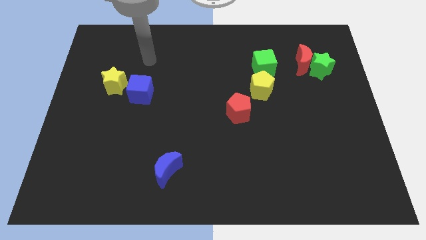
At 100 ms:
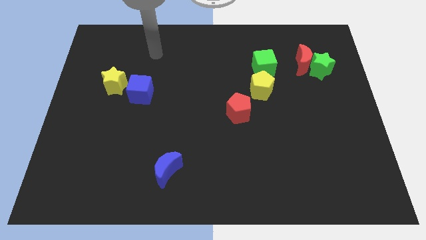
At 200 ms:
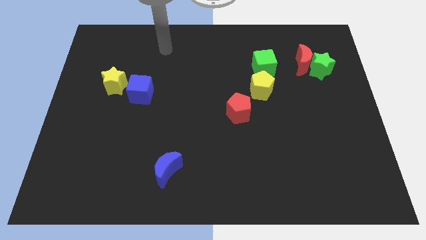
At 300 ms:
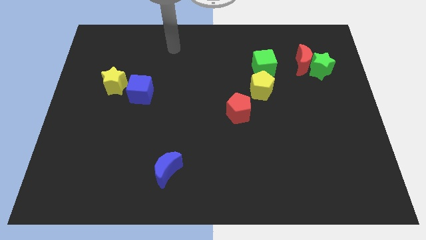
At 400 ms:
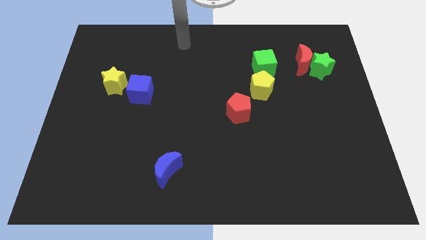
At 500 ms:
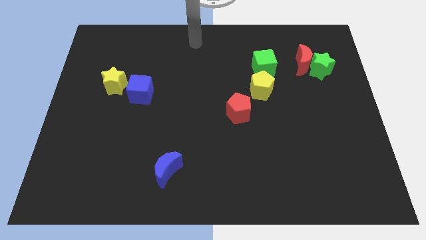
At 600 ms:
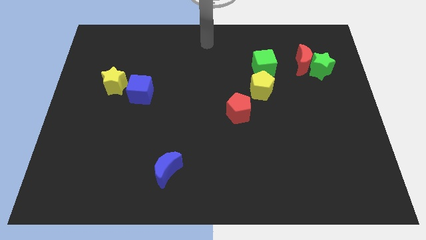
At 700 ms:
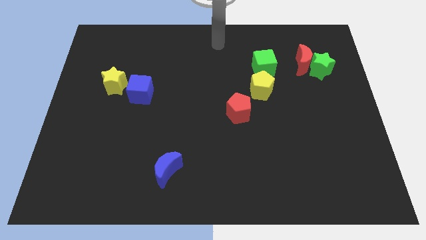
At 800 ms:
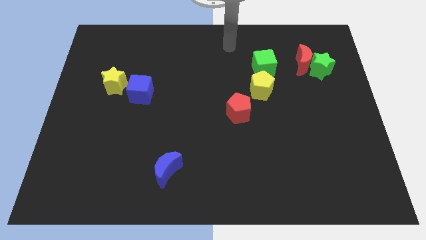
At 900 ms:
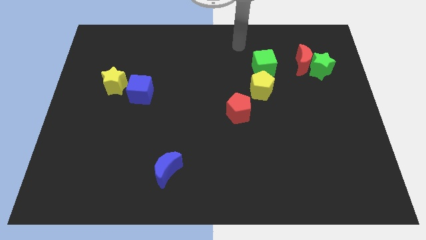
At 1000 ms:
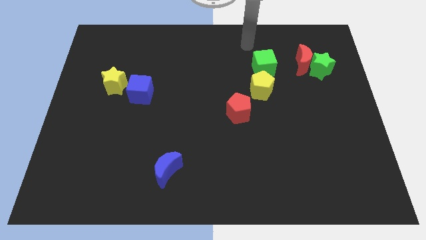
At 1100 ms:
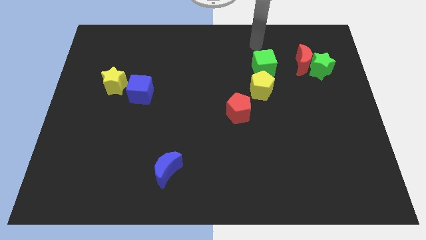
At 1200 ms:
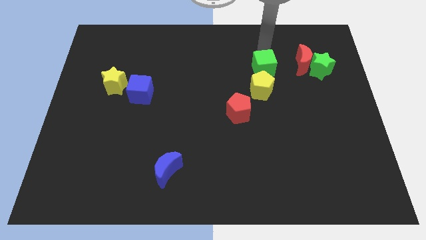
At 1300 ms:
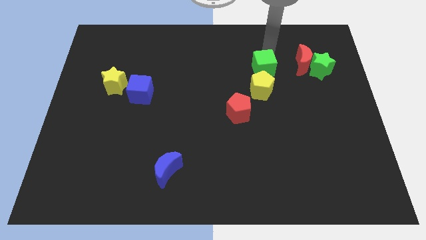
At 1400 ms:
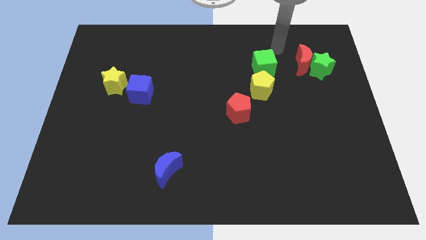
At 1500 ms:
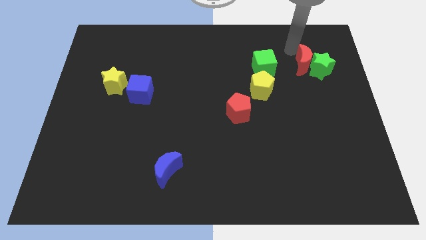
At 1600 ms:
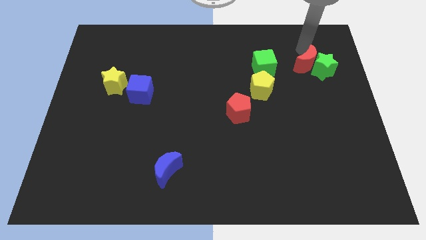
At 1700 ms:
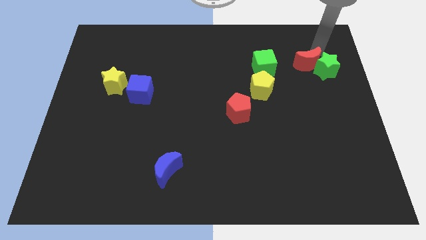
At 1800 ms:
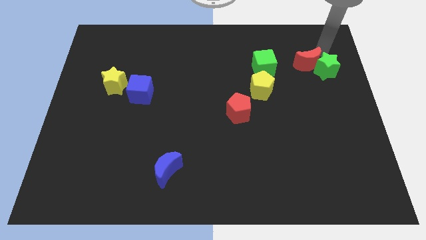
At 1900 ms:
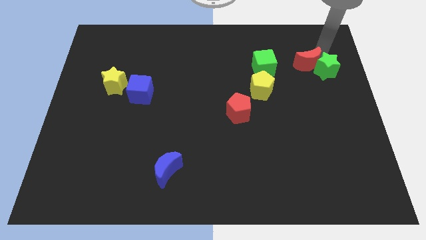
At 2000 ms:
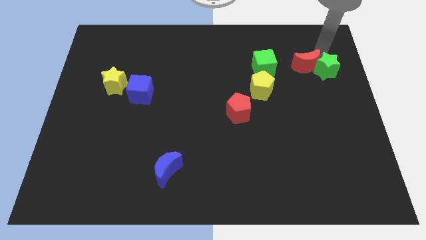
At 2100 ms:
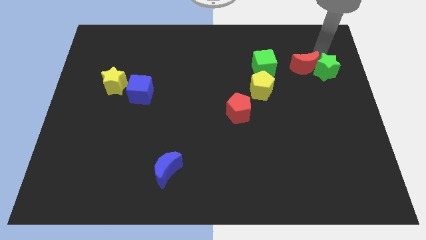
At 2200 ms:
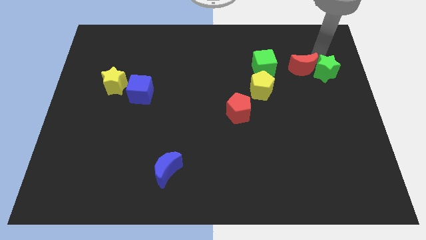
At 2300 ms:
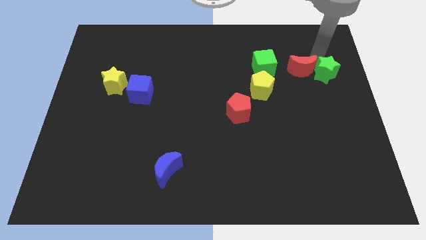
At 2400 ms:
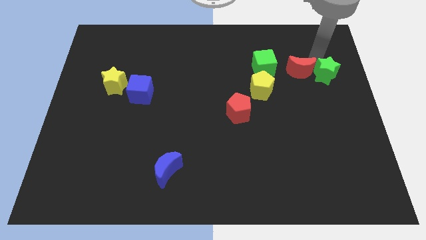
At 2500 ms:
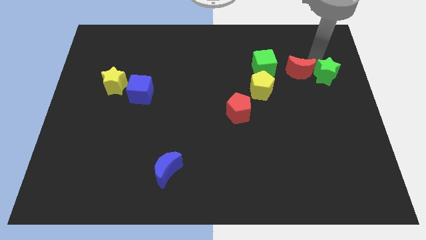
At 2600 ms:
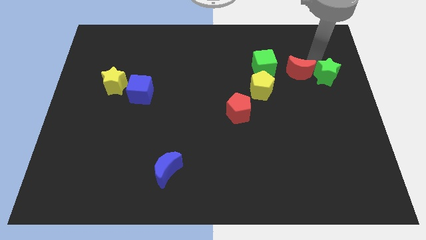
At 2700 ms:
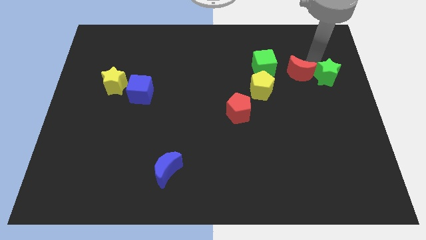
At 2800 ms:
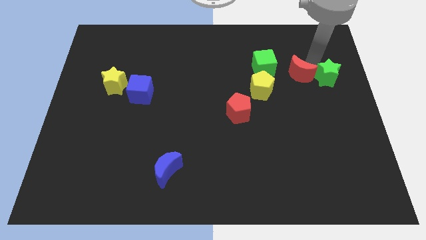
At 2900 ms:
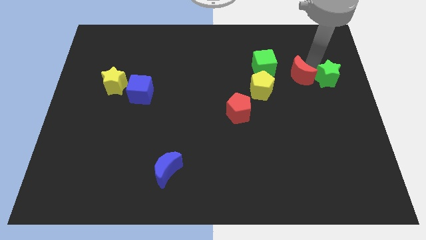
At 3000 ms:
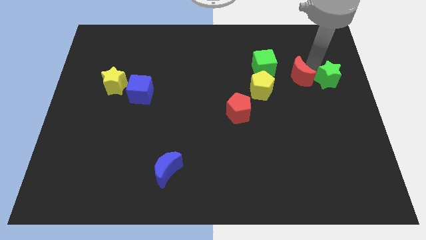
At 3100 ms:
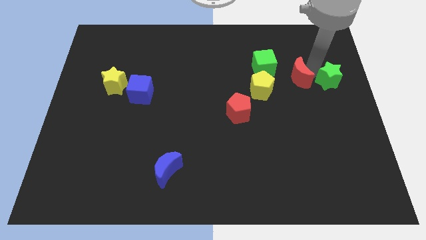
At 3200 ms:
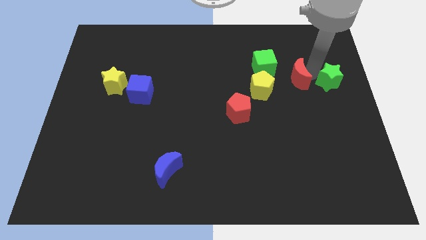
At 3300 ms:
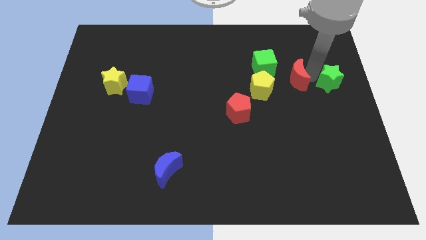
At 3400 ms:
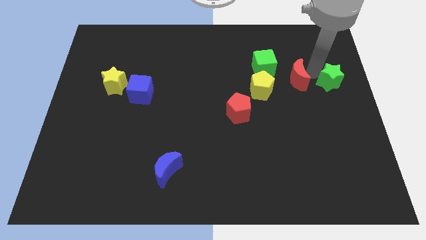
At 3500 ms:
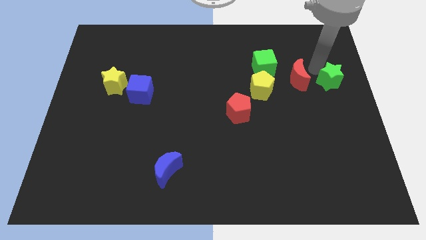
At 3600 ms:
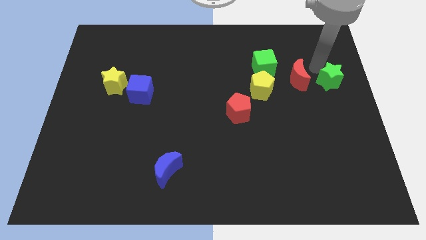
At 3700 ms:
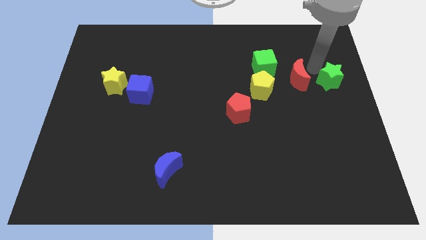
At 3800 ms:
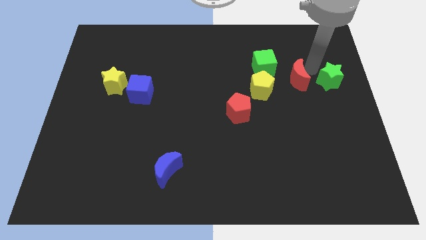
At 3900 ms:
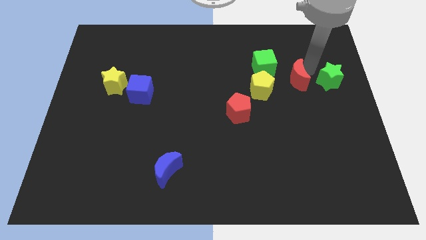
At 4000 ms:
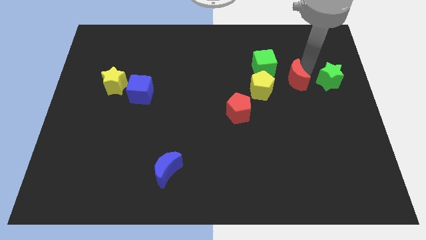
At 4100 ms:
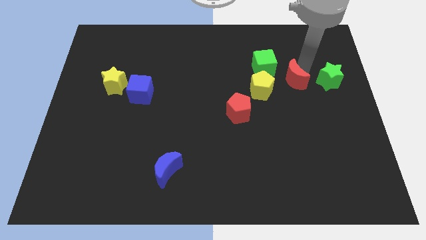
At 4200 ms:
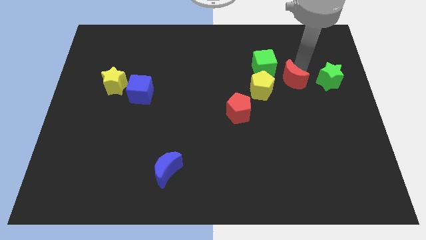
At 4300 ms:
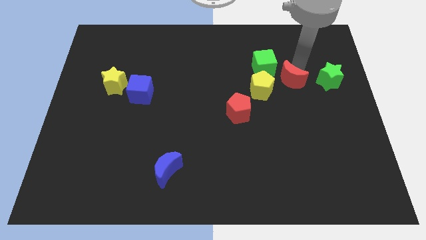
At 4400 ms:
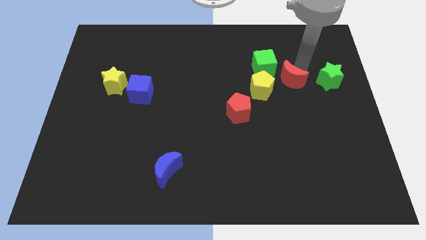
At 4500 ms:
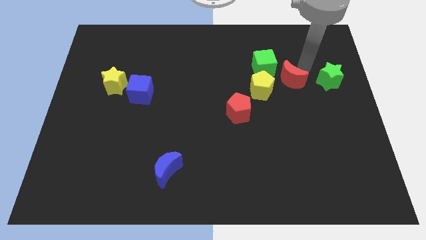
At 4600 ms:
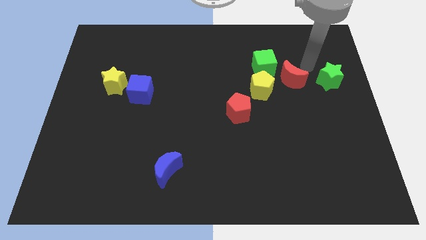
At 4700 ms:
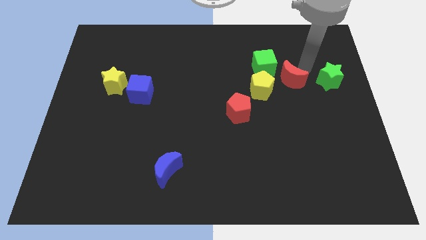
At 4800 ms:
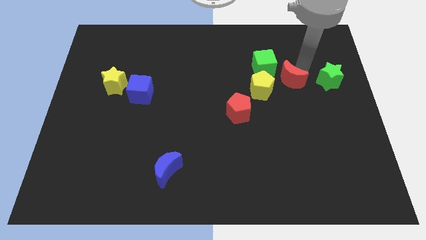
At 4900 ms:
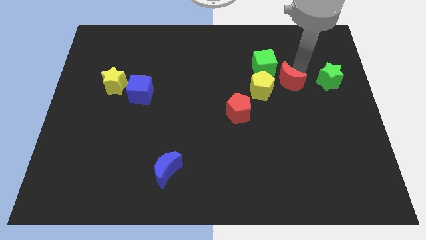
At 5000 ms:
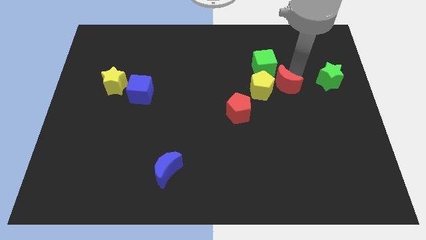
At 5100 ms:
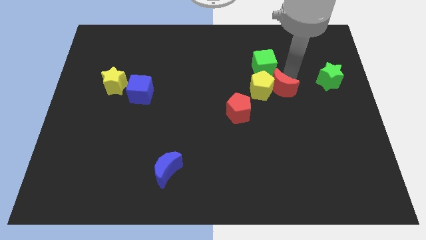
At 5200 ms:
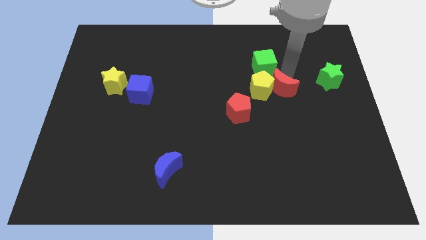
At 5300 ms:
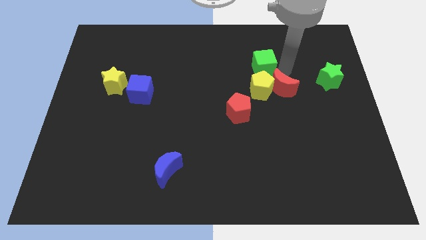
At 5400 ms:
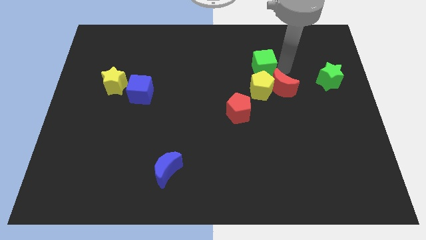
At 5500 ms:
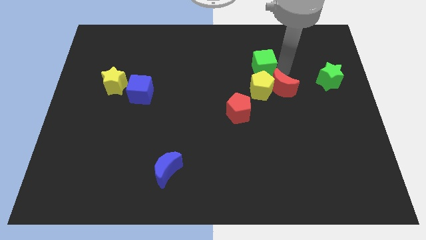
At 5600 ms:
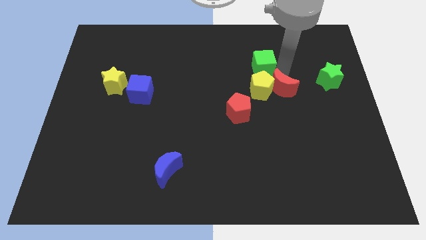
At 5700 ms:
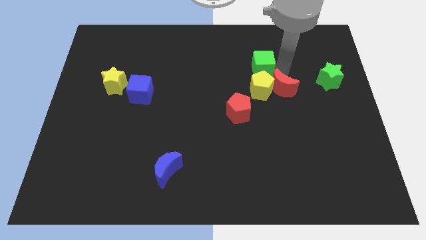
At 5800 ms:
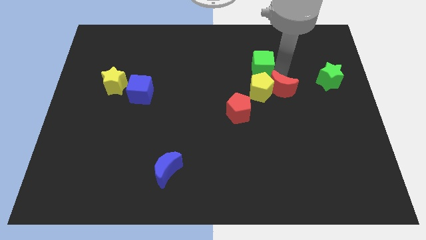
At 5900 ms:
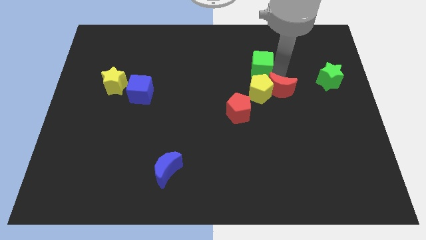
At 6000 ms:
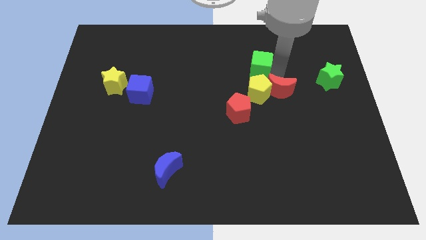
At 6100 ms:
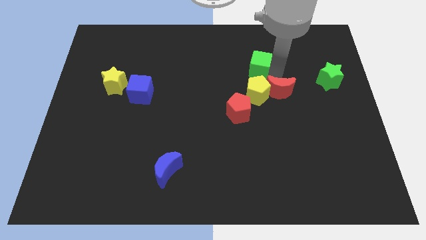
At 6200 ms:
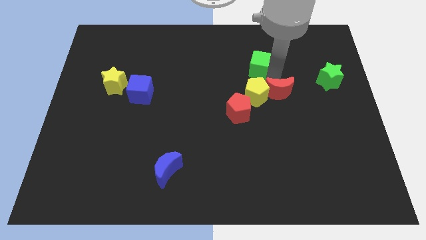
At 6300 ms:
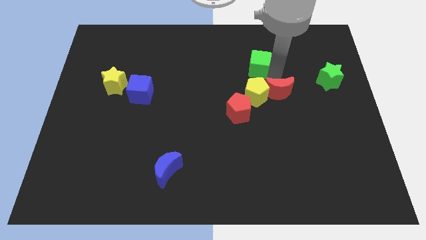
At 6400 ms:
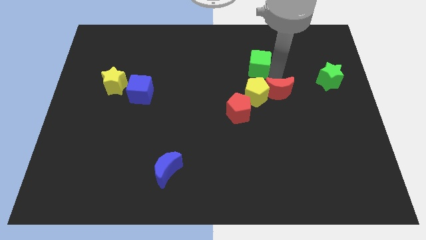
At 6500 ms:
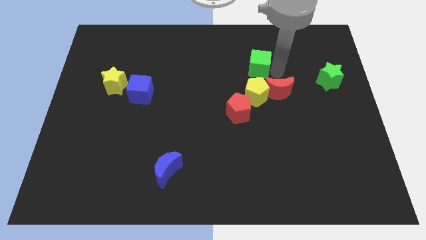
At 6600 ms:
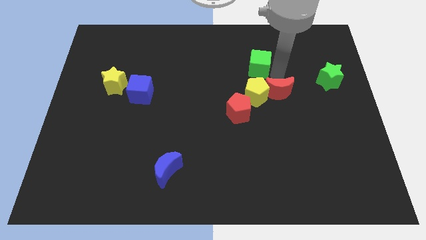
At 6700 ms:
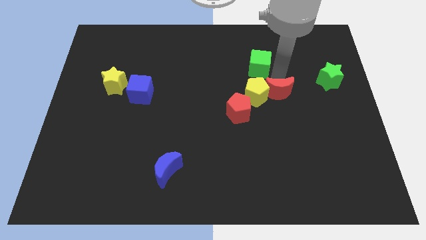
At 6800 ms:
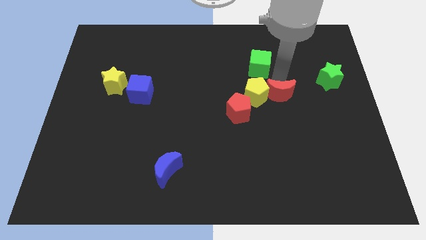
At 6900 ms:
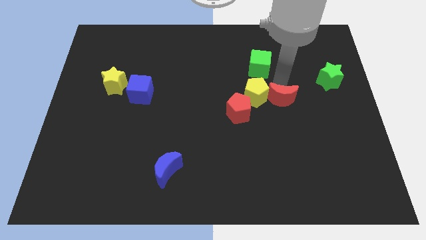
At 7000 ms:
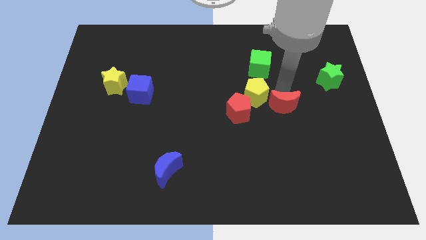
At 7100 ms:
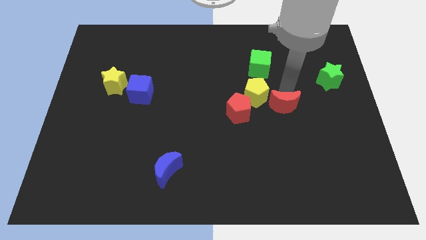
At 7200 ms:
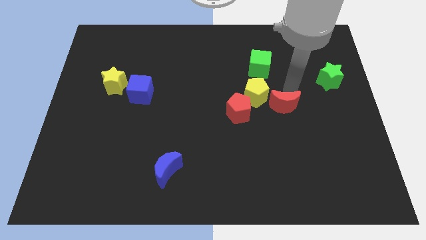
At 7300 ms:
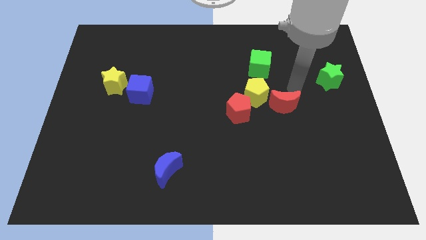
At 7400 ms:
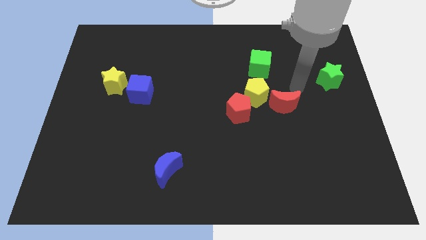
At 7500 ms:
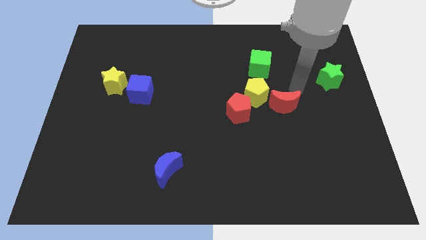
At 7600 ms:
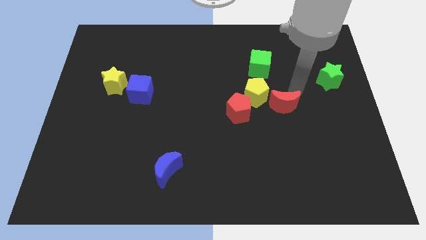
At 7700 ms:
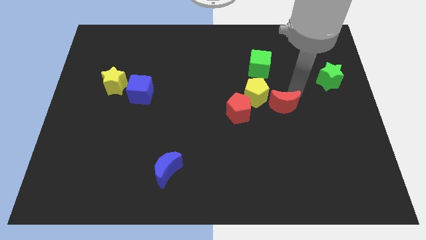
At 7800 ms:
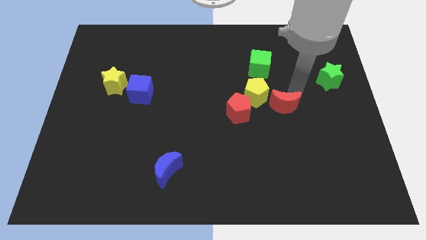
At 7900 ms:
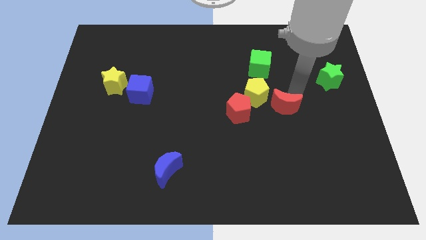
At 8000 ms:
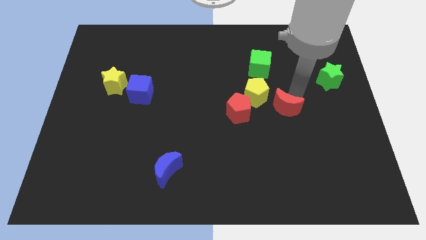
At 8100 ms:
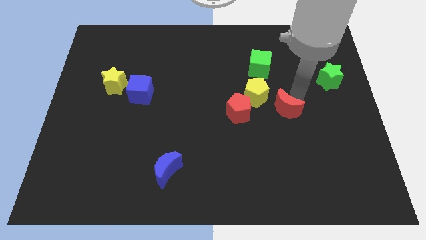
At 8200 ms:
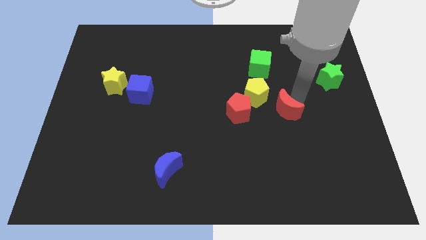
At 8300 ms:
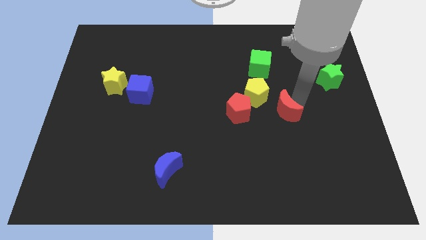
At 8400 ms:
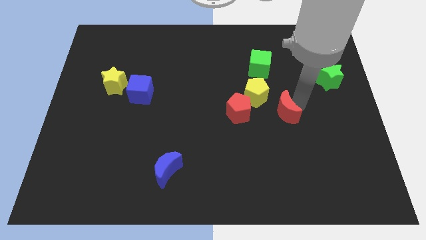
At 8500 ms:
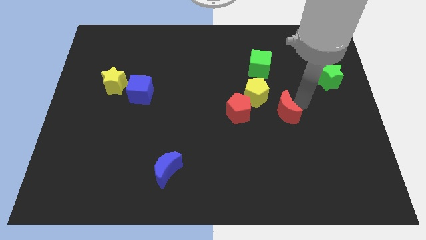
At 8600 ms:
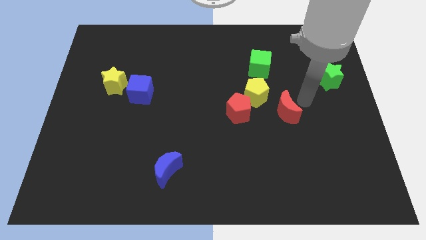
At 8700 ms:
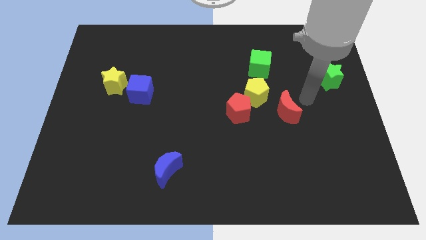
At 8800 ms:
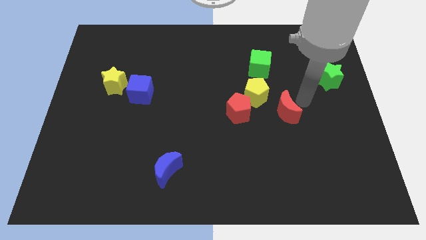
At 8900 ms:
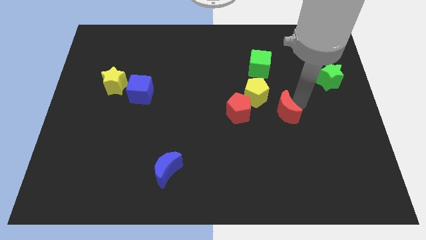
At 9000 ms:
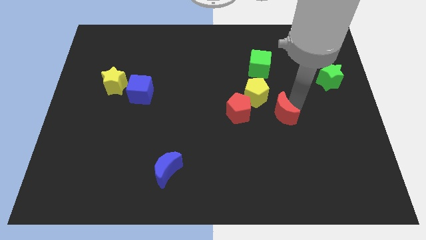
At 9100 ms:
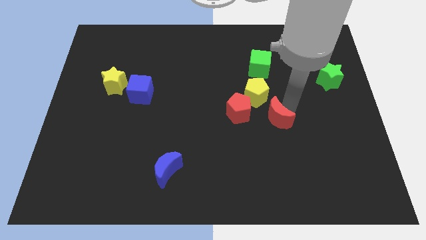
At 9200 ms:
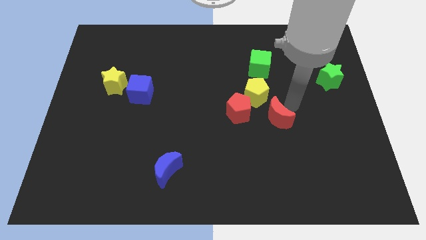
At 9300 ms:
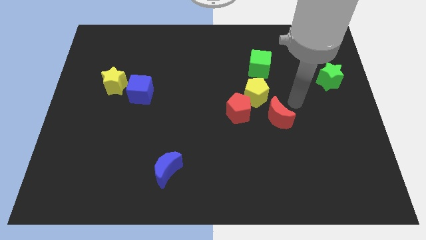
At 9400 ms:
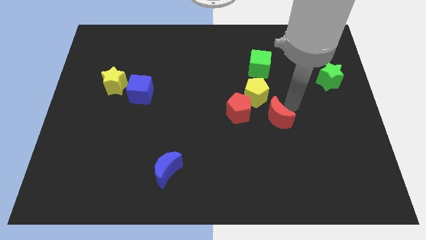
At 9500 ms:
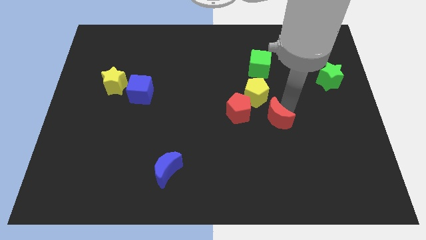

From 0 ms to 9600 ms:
put the red moon to the bottom right side of the red pentagon
